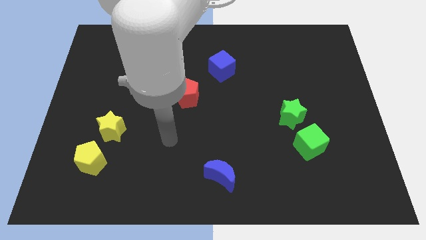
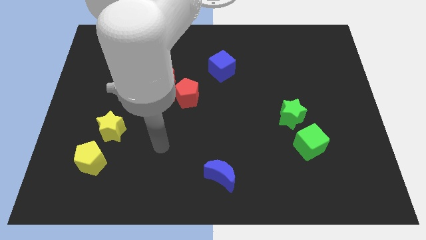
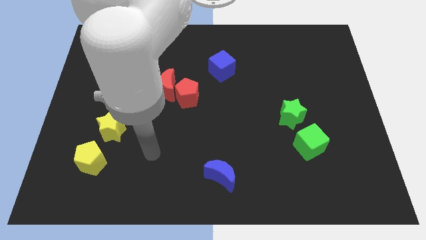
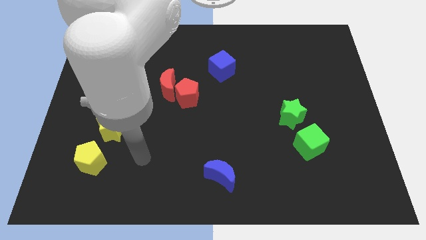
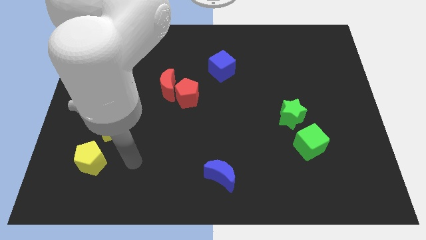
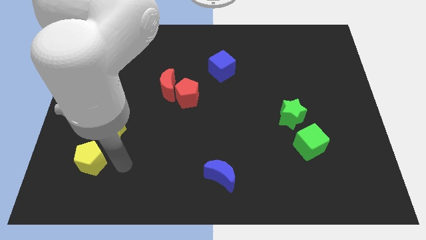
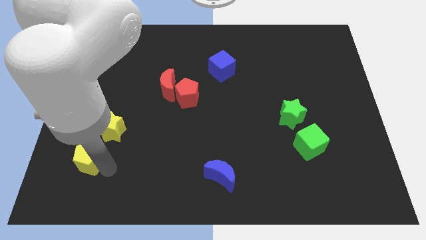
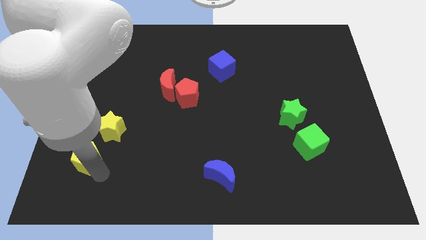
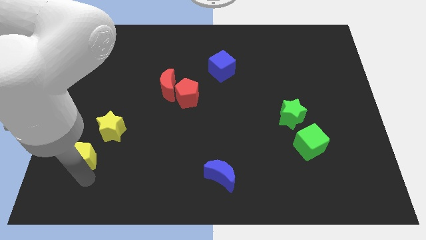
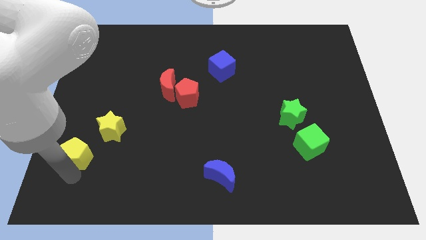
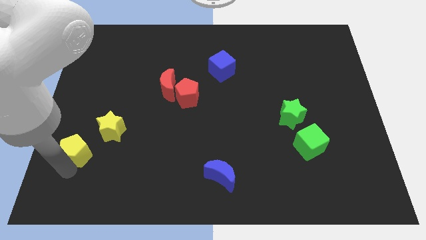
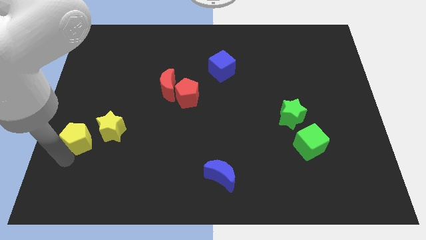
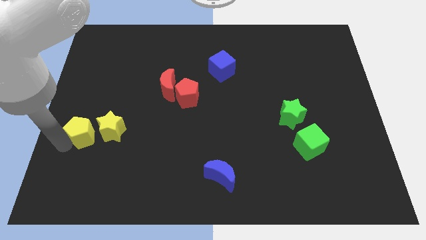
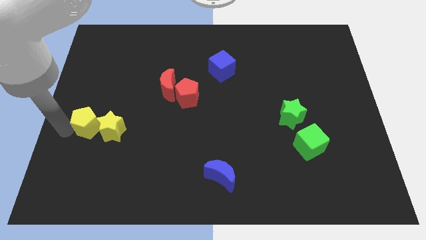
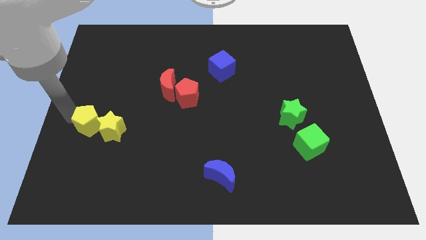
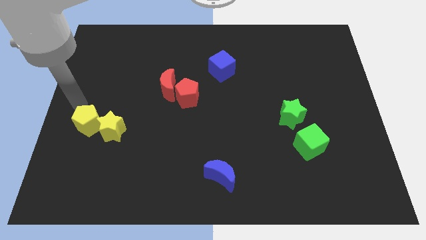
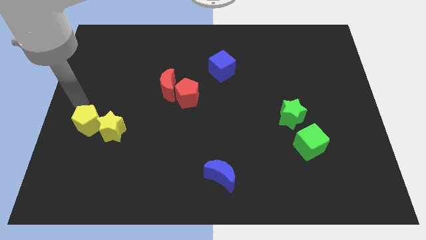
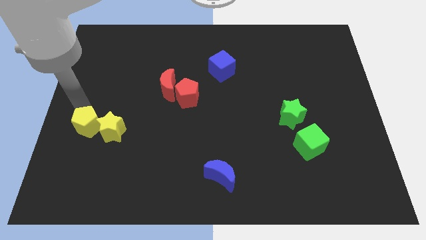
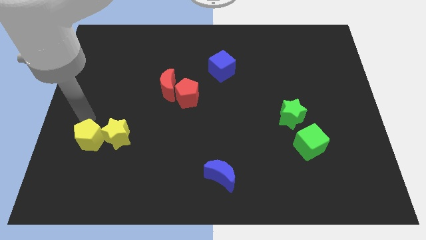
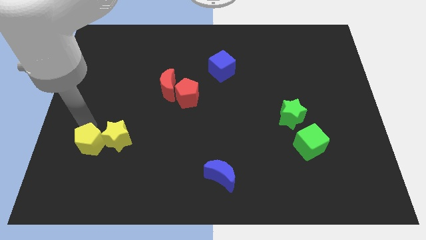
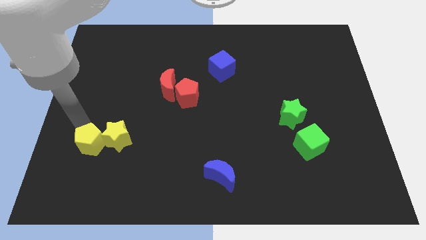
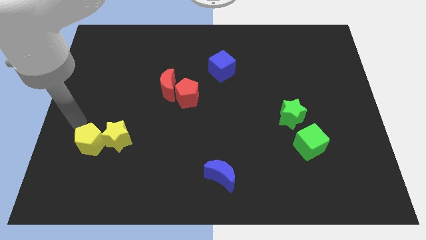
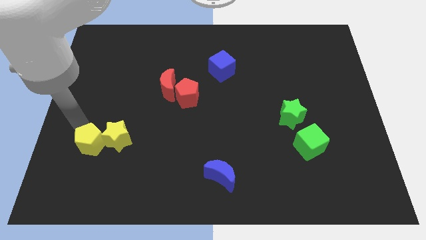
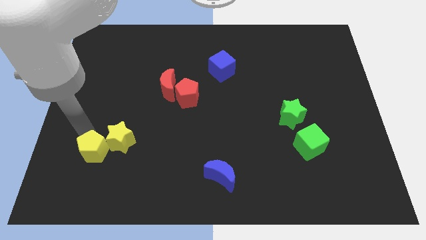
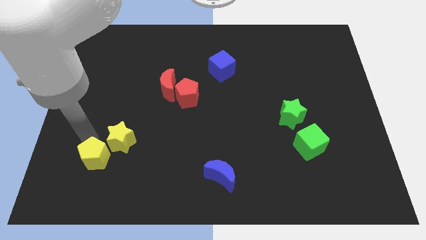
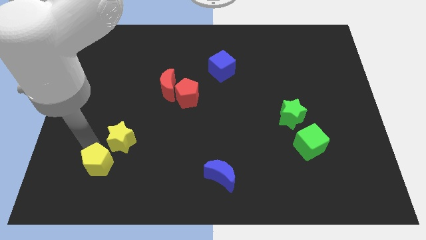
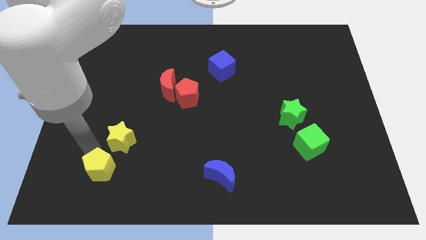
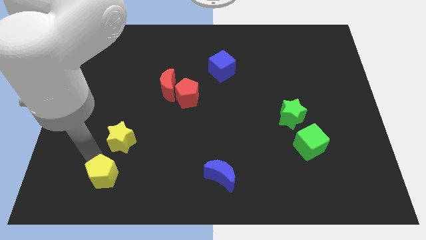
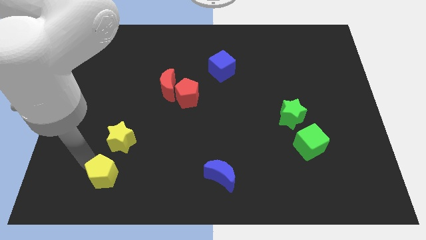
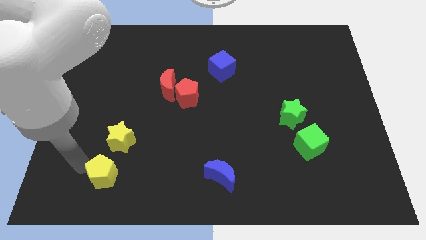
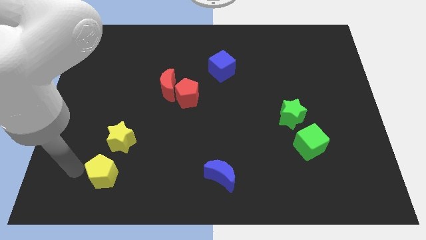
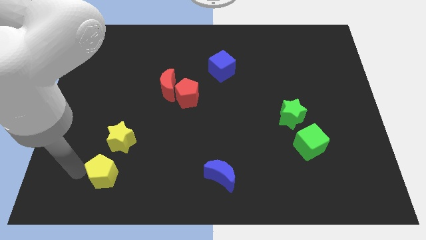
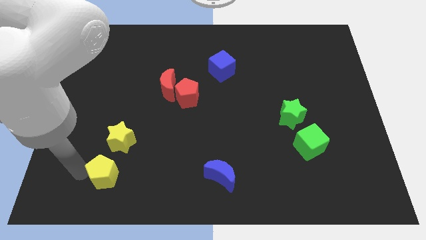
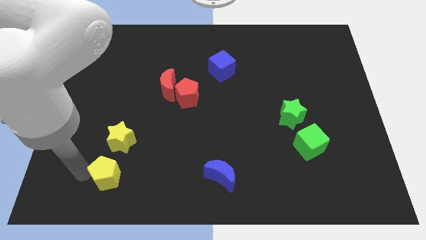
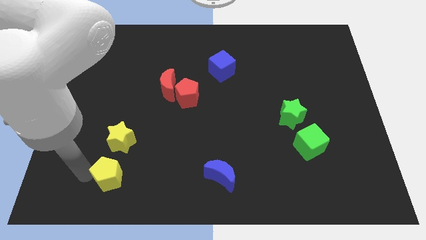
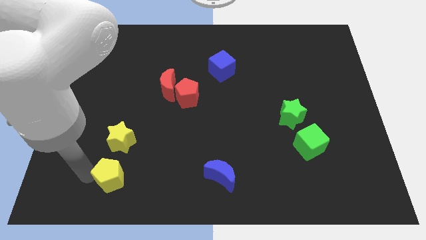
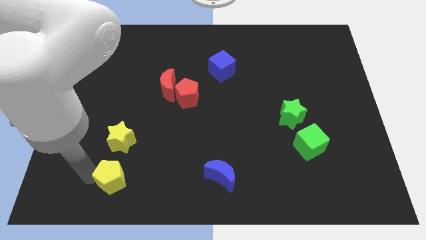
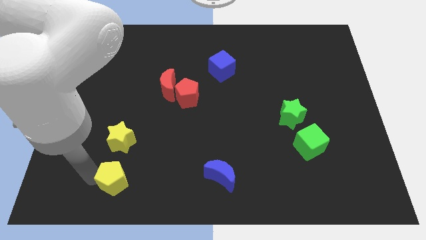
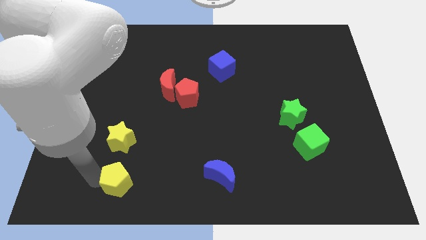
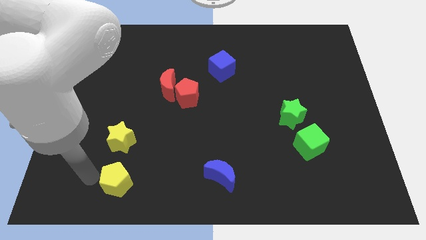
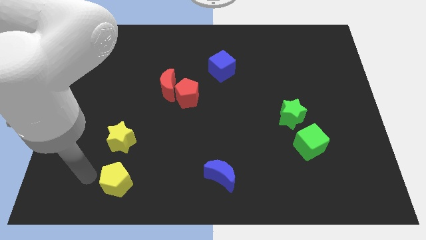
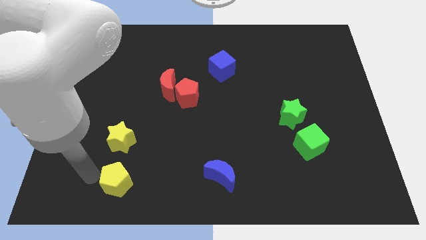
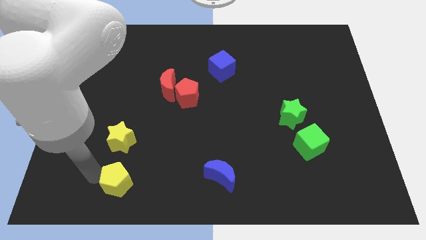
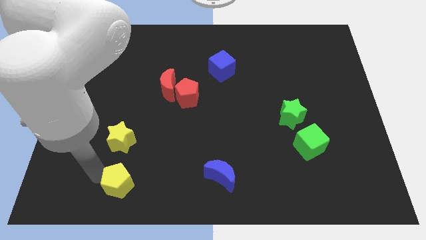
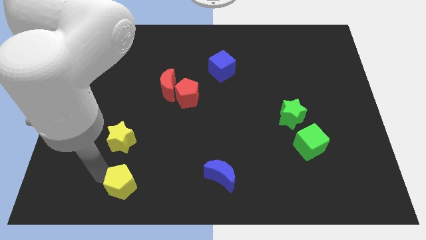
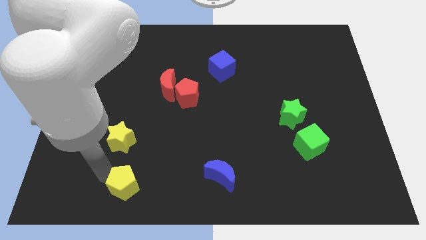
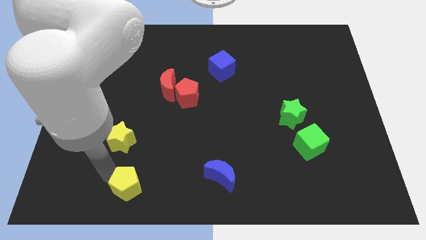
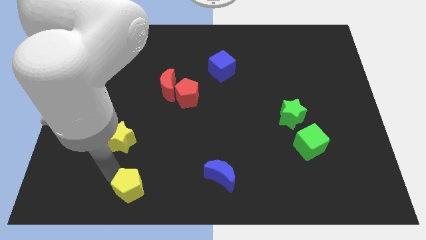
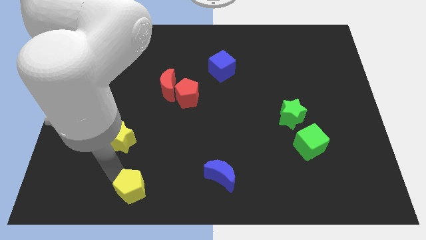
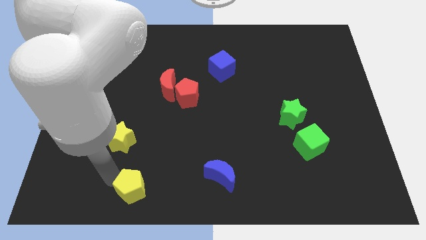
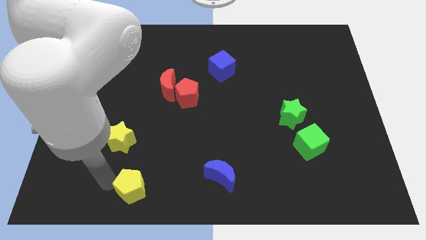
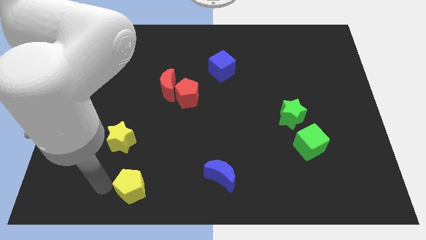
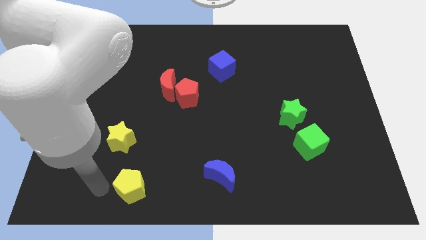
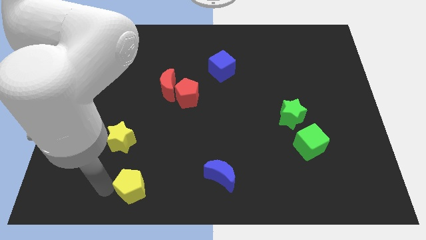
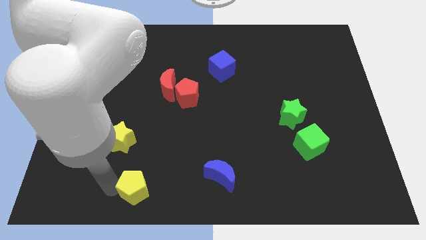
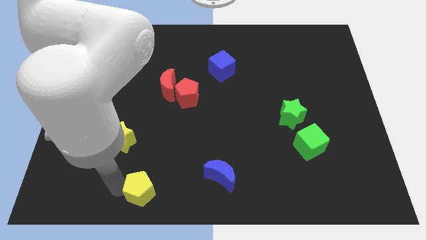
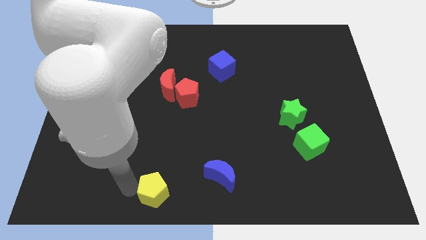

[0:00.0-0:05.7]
move the yellow pentagon to the bottom side

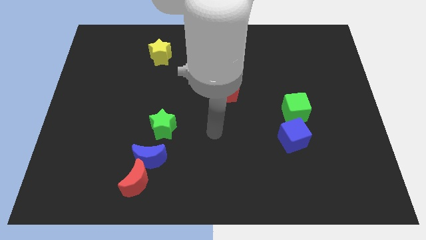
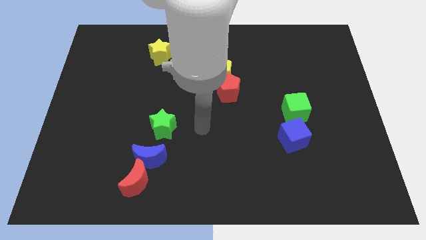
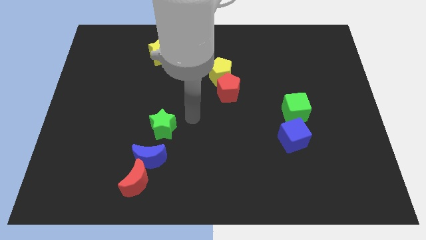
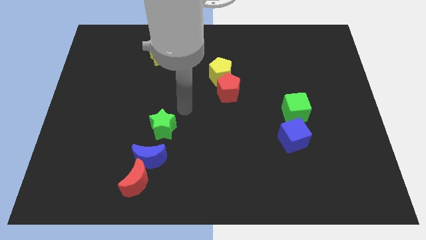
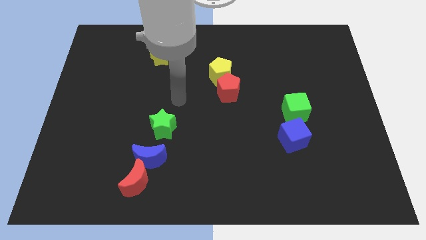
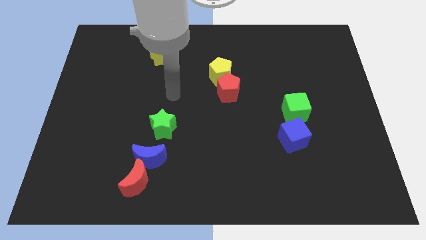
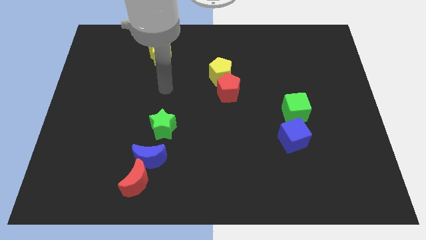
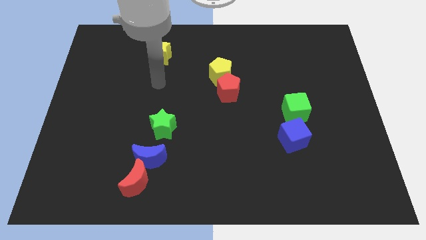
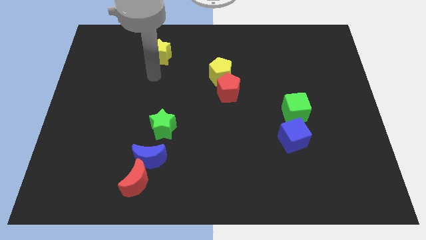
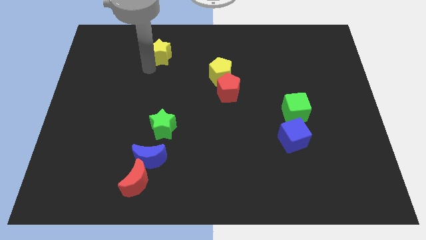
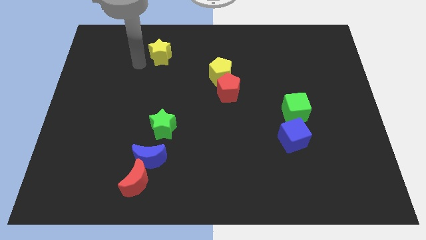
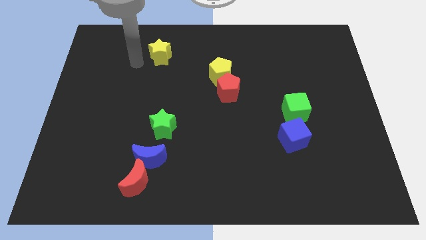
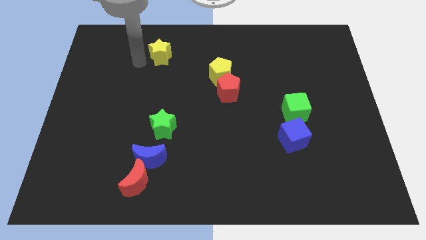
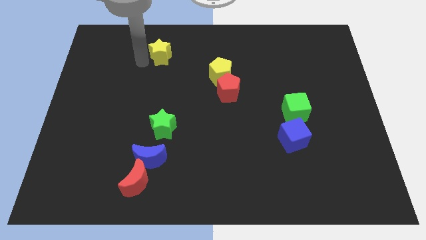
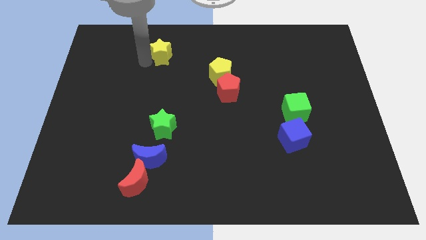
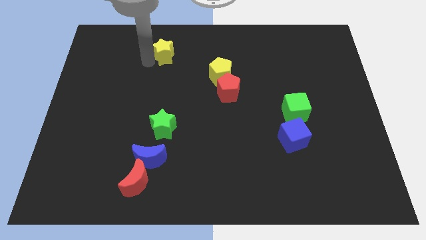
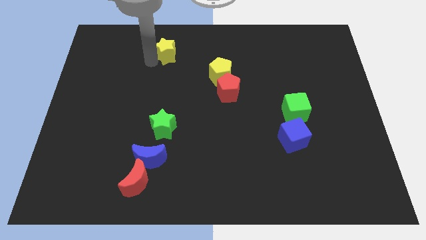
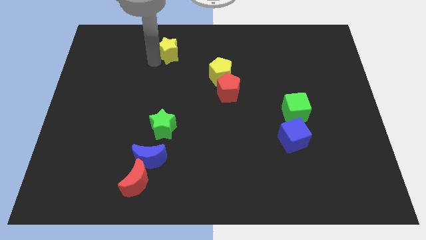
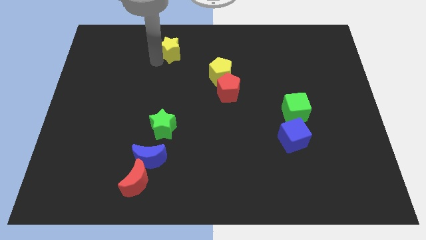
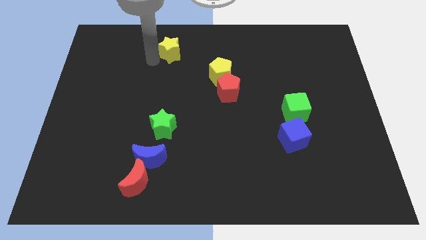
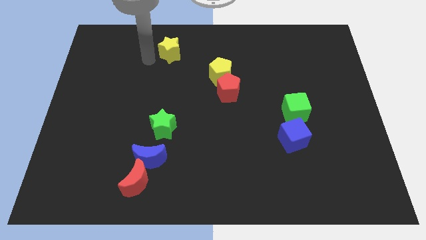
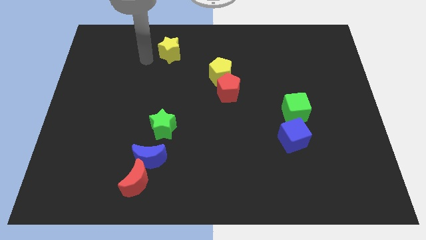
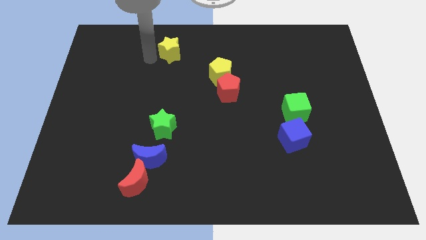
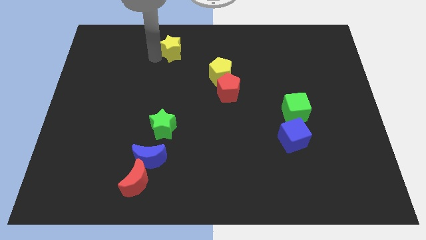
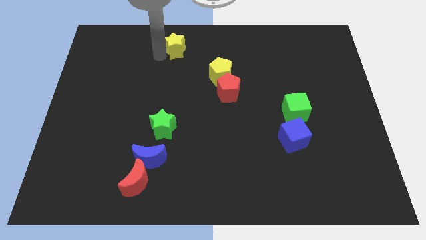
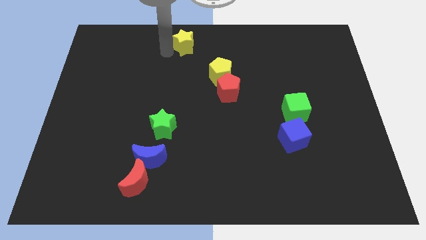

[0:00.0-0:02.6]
push the yellow star to the top side
